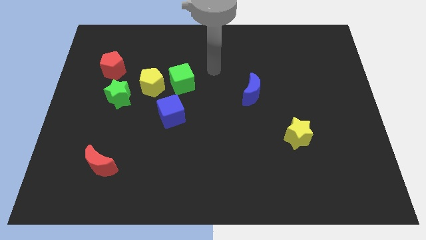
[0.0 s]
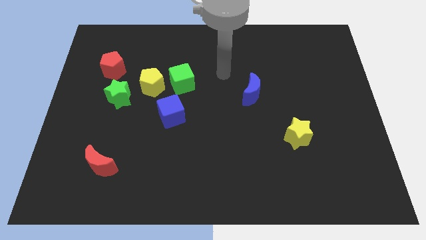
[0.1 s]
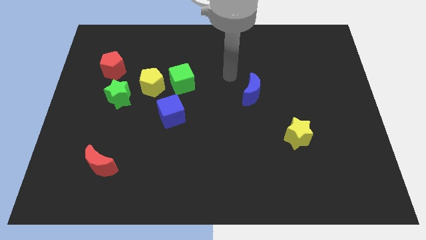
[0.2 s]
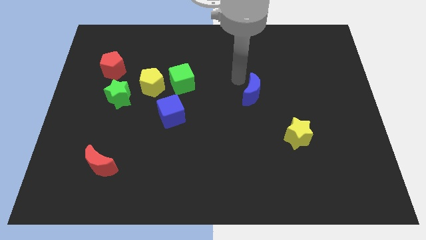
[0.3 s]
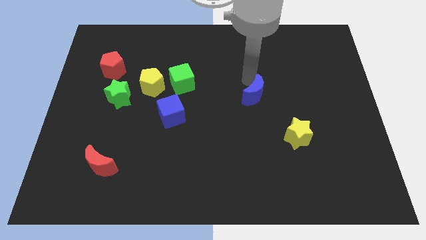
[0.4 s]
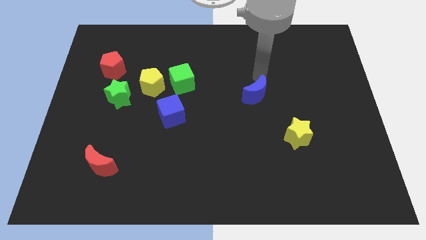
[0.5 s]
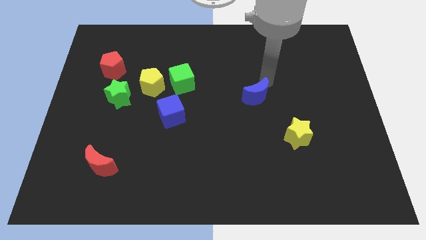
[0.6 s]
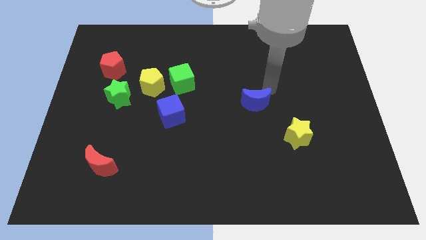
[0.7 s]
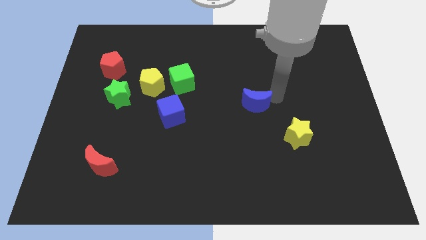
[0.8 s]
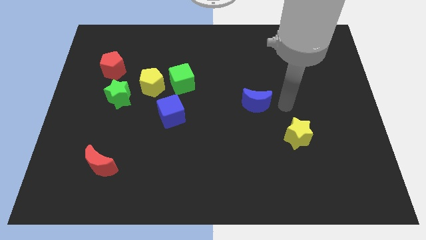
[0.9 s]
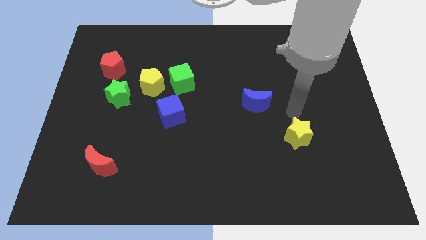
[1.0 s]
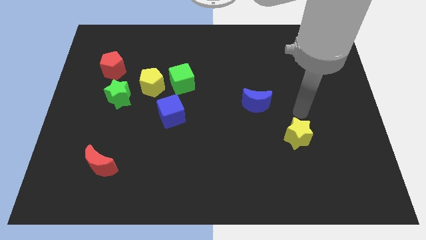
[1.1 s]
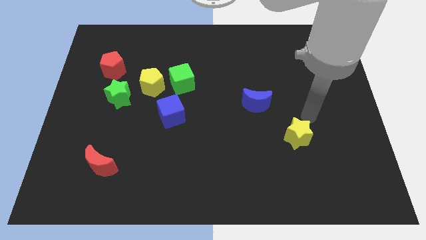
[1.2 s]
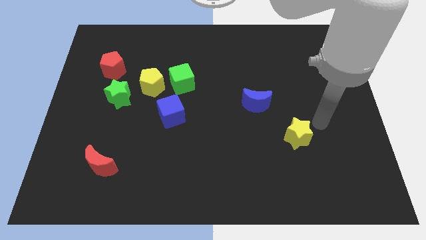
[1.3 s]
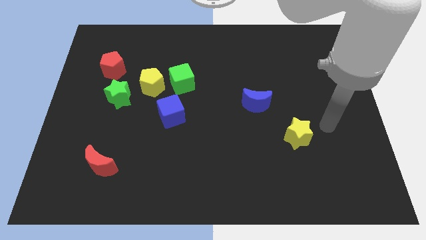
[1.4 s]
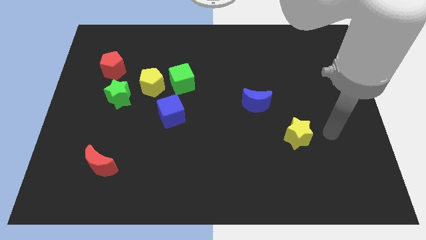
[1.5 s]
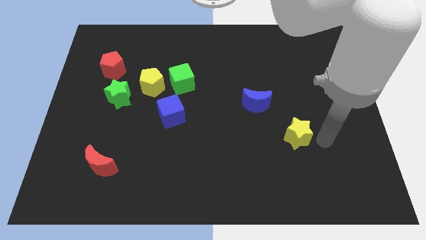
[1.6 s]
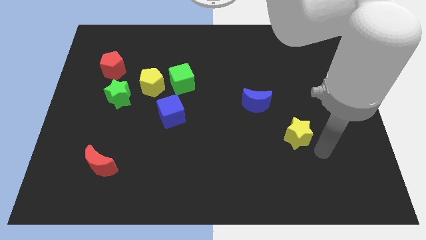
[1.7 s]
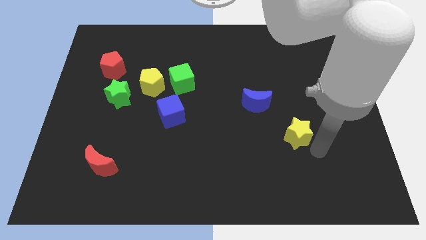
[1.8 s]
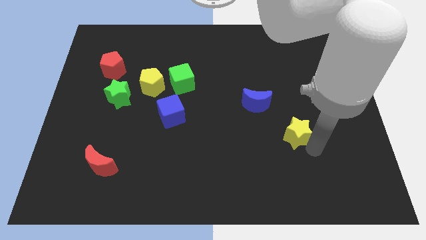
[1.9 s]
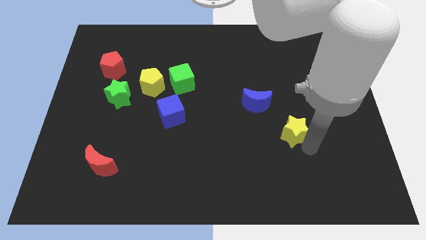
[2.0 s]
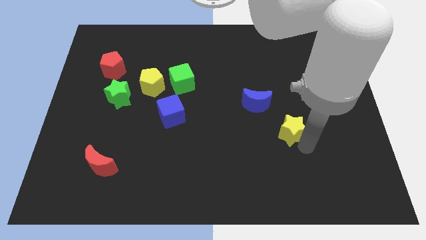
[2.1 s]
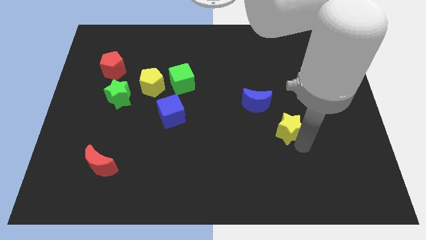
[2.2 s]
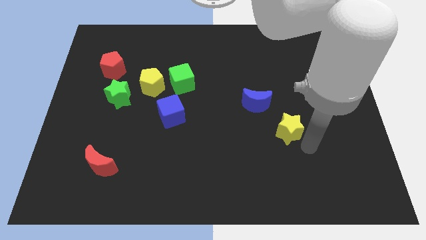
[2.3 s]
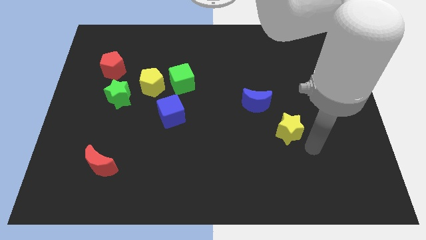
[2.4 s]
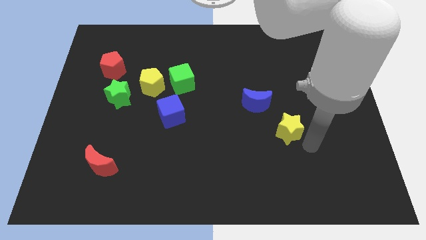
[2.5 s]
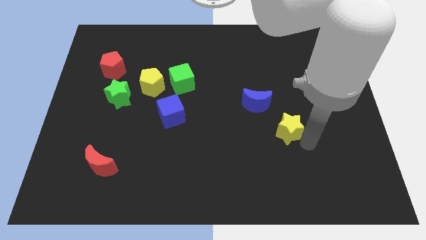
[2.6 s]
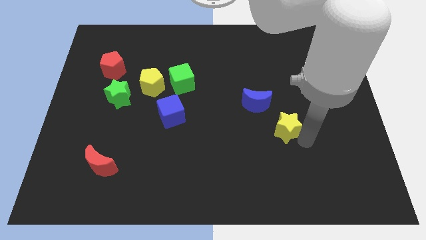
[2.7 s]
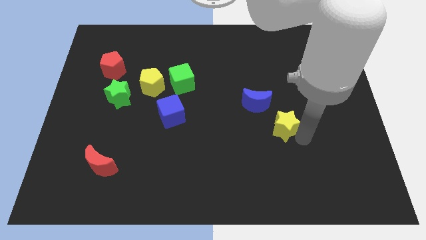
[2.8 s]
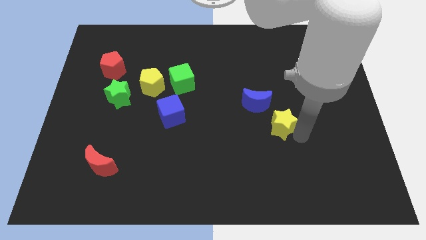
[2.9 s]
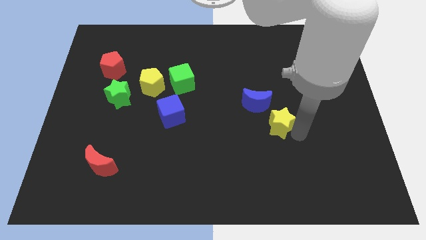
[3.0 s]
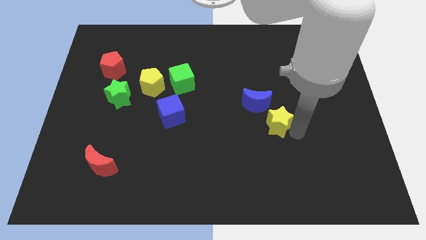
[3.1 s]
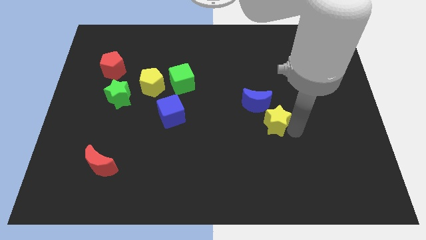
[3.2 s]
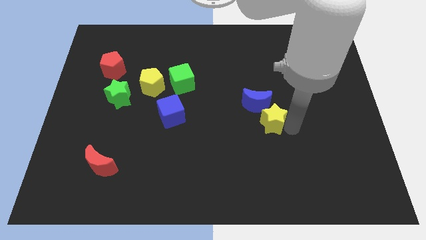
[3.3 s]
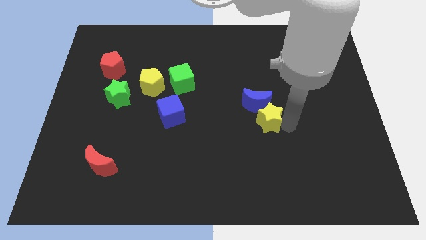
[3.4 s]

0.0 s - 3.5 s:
slide the yellow star a little up and then to the left

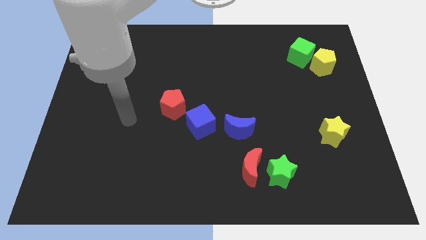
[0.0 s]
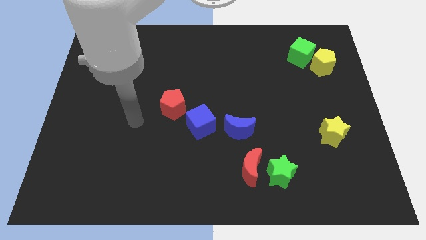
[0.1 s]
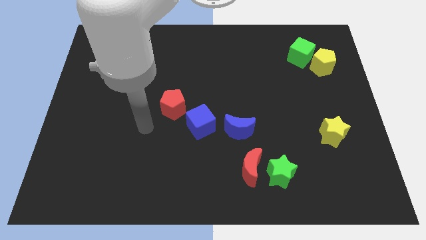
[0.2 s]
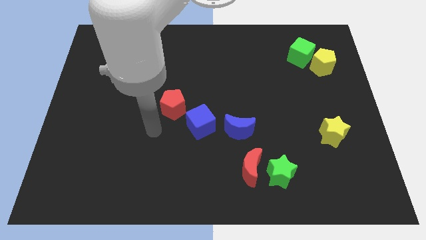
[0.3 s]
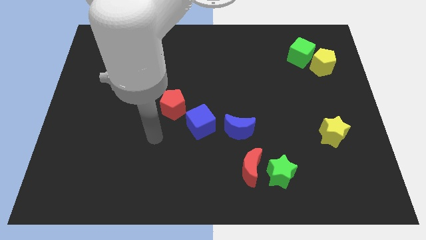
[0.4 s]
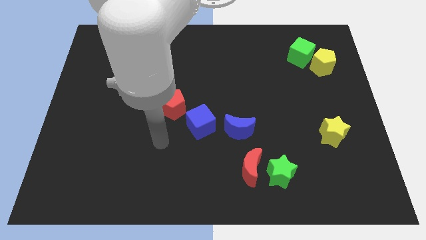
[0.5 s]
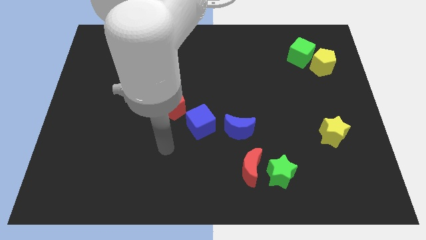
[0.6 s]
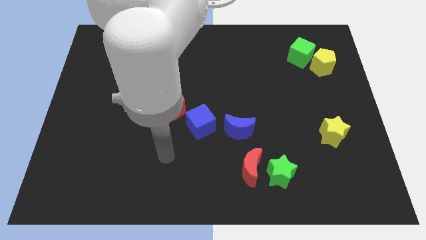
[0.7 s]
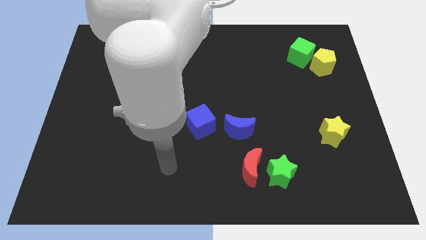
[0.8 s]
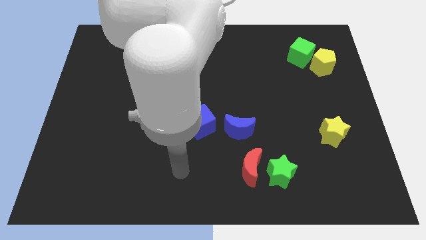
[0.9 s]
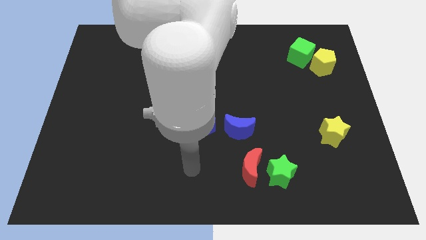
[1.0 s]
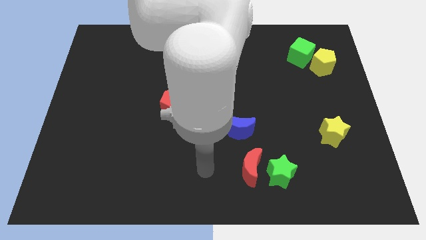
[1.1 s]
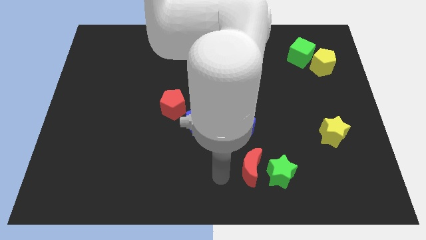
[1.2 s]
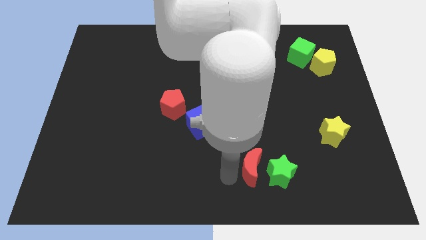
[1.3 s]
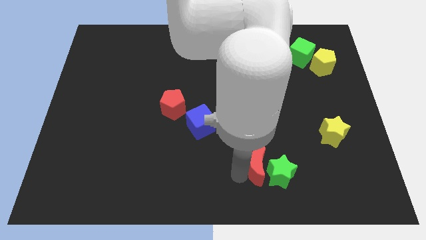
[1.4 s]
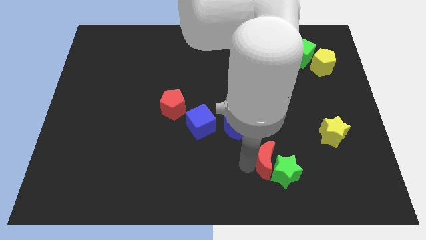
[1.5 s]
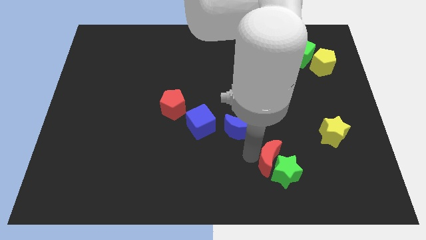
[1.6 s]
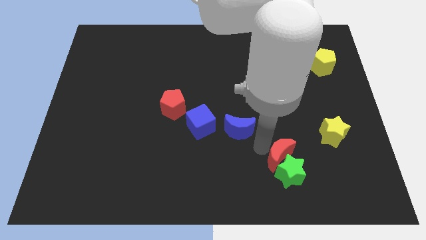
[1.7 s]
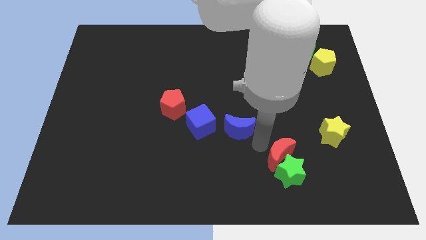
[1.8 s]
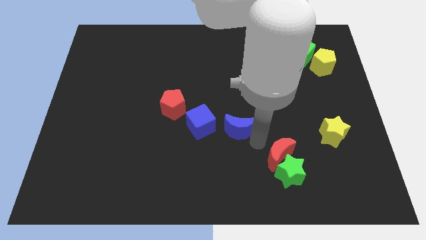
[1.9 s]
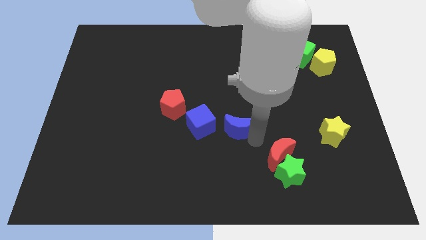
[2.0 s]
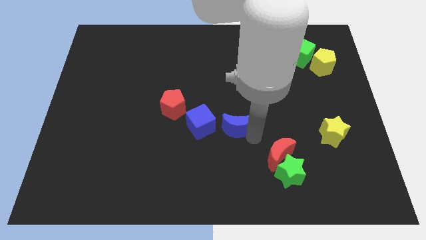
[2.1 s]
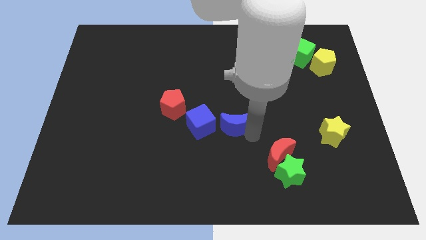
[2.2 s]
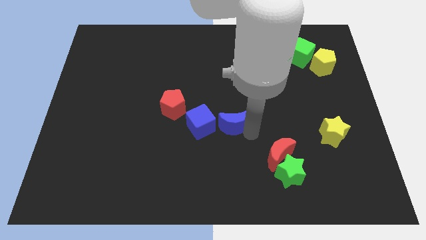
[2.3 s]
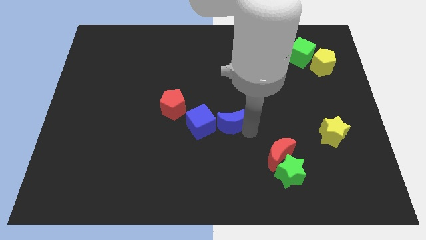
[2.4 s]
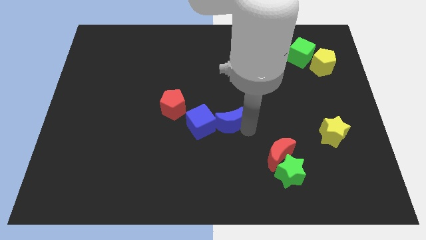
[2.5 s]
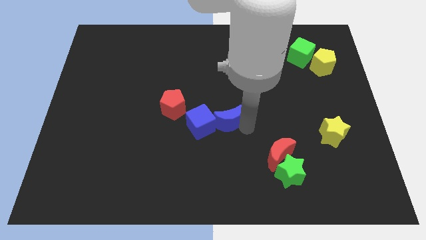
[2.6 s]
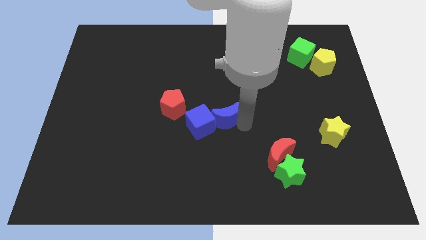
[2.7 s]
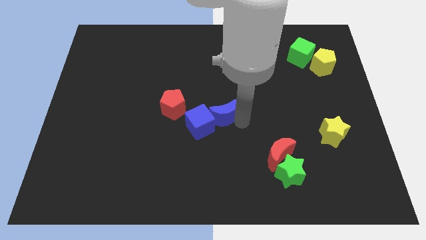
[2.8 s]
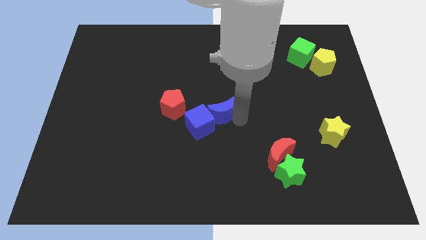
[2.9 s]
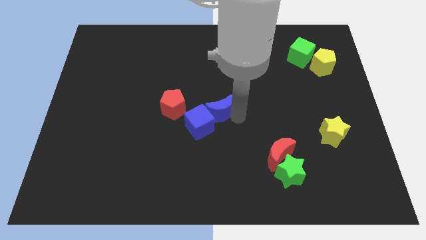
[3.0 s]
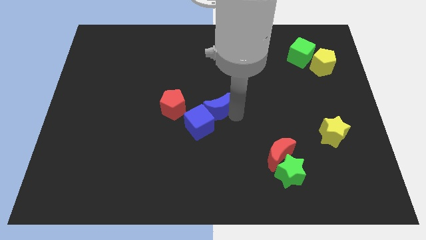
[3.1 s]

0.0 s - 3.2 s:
move the blue moon a little bit upwards and to the left diagonally

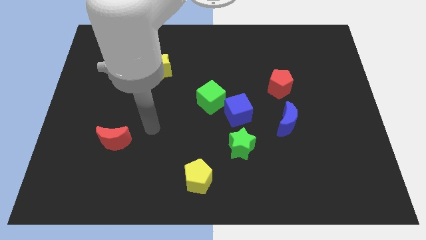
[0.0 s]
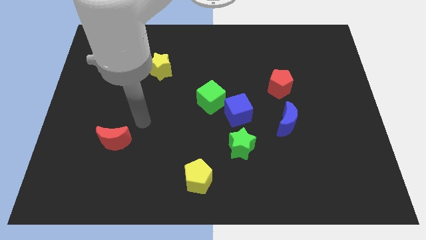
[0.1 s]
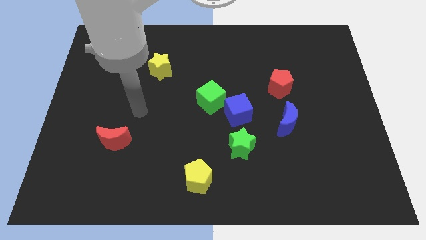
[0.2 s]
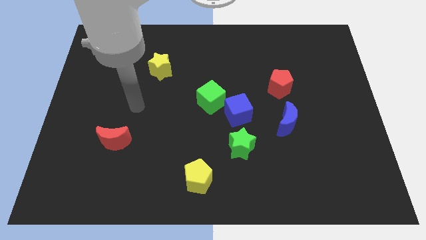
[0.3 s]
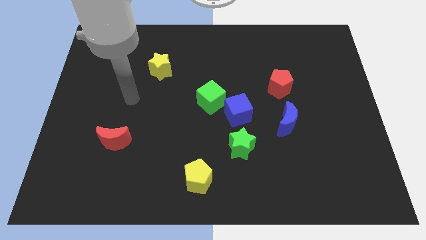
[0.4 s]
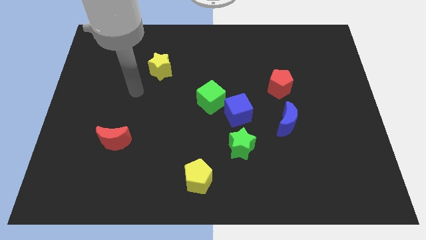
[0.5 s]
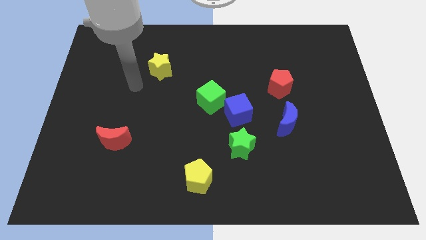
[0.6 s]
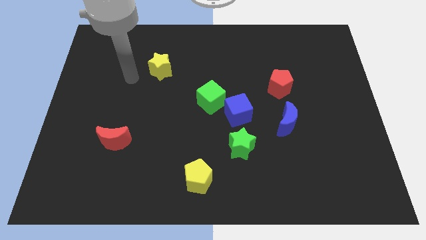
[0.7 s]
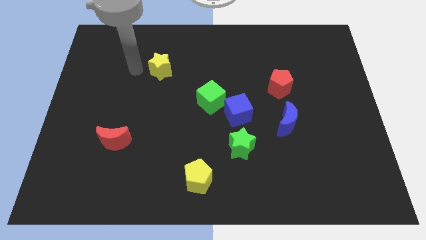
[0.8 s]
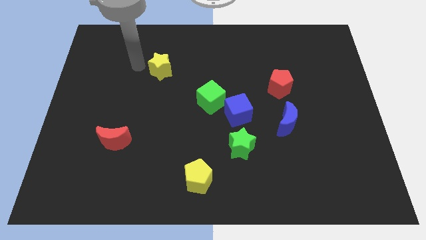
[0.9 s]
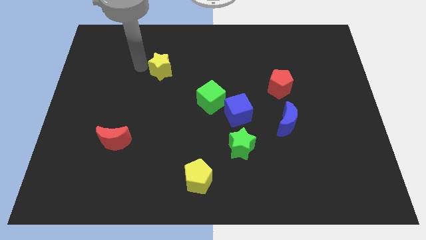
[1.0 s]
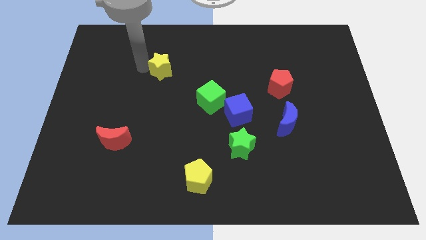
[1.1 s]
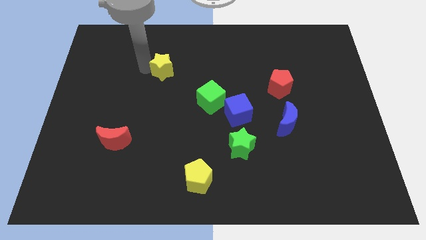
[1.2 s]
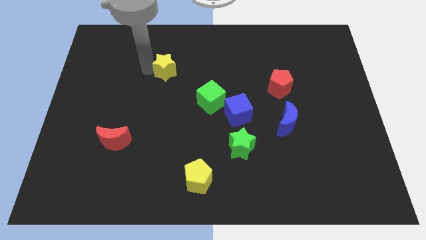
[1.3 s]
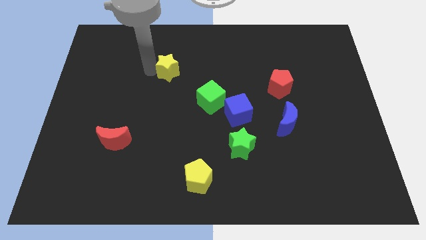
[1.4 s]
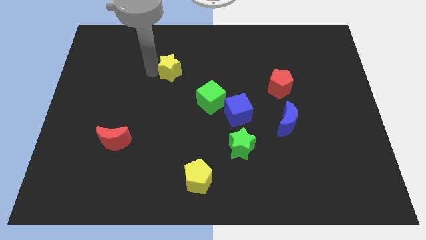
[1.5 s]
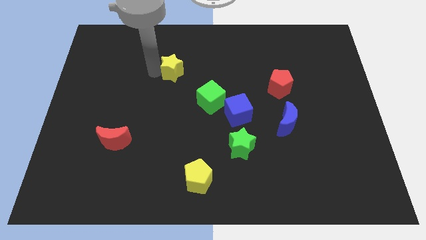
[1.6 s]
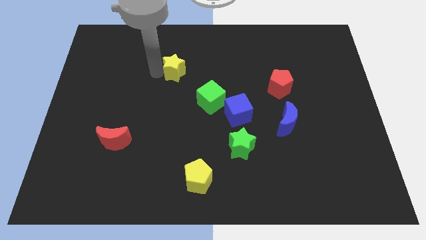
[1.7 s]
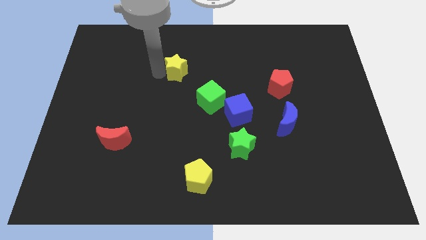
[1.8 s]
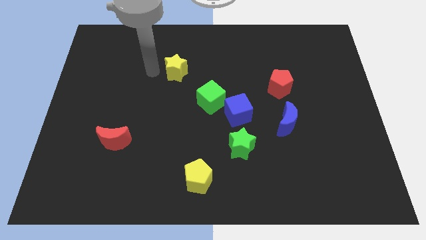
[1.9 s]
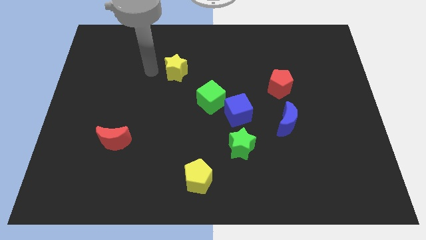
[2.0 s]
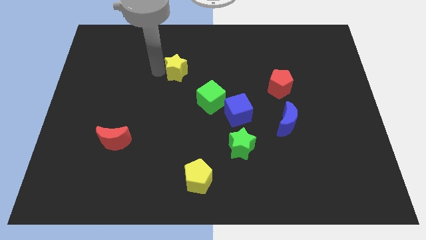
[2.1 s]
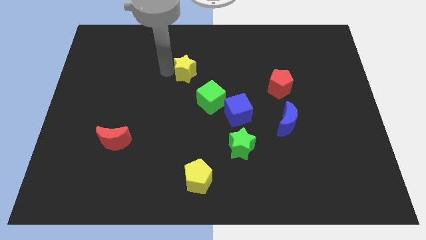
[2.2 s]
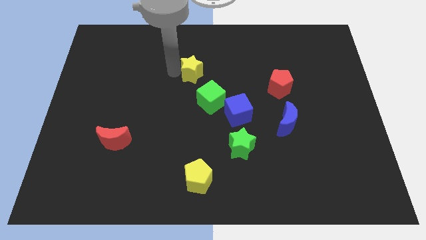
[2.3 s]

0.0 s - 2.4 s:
move the yellow star to the right slightly
